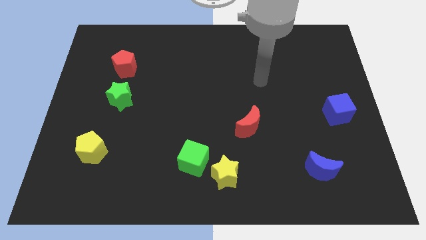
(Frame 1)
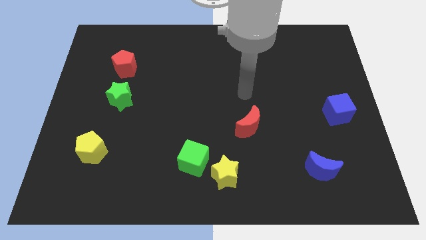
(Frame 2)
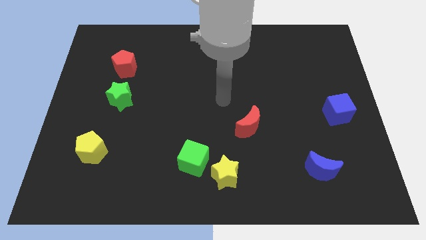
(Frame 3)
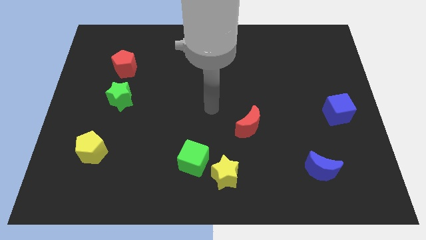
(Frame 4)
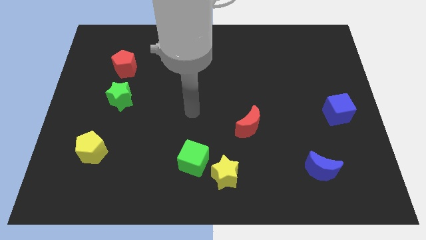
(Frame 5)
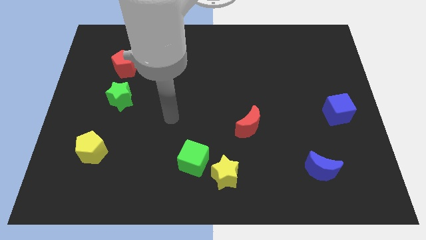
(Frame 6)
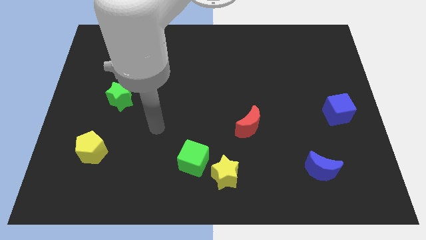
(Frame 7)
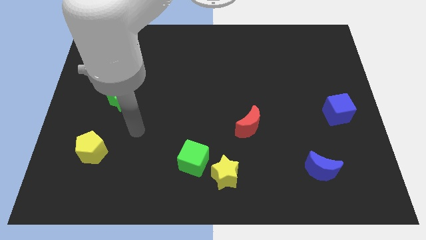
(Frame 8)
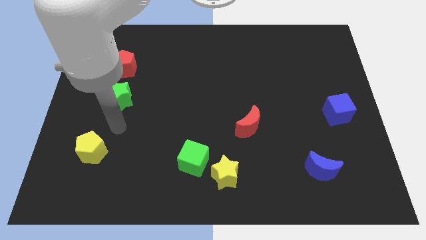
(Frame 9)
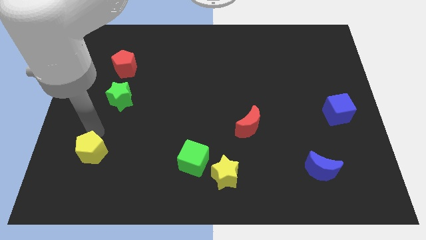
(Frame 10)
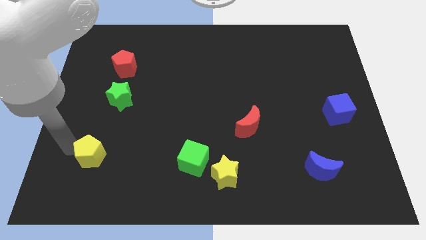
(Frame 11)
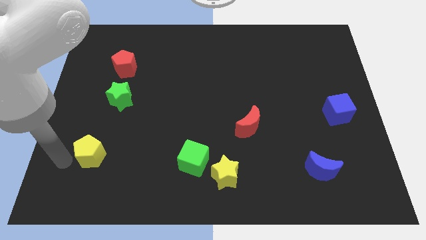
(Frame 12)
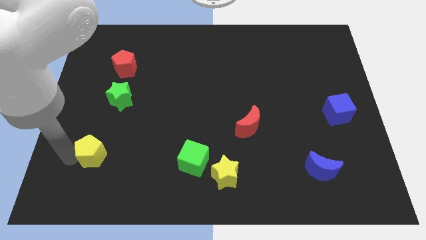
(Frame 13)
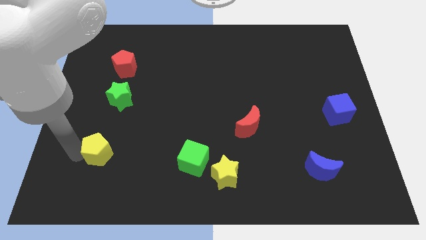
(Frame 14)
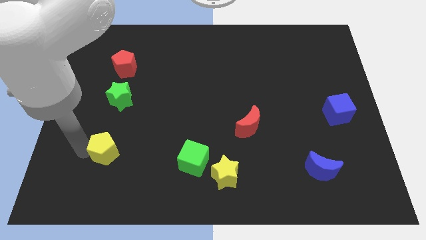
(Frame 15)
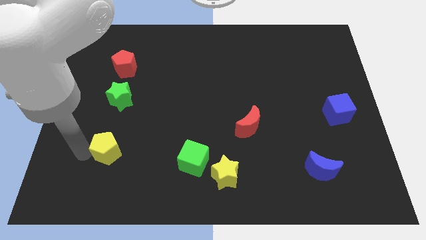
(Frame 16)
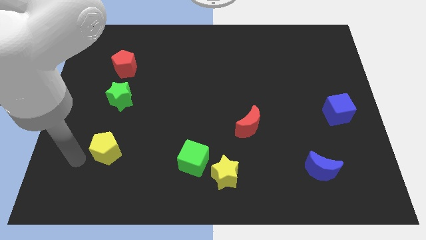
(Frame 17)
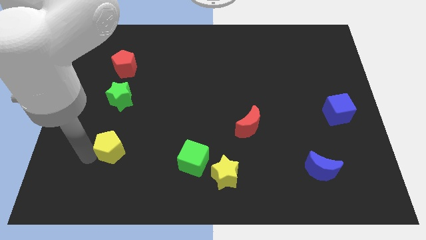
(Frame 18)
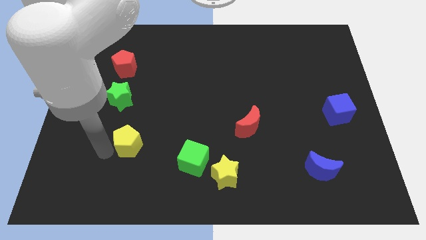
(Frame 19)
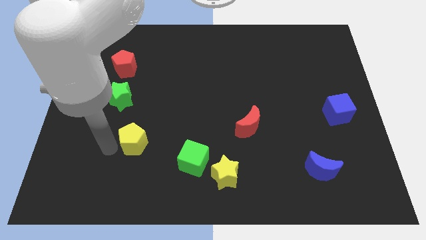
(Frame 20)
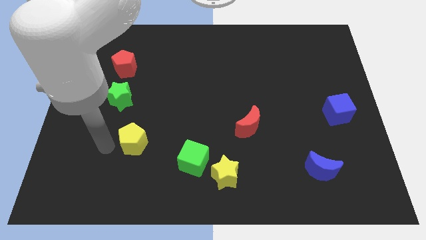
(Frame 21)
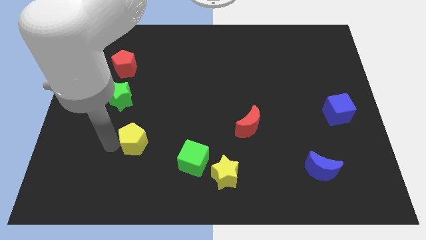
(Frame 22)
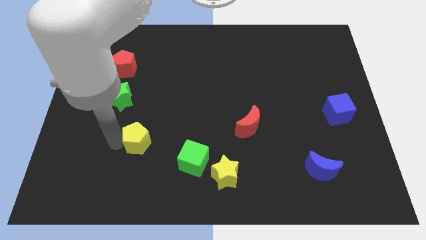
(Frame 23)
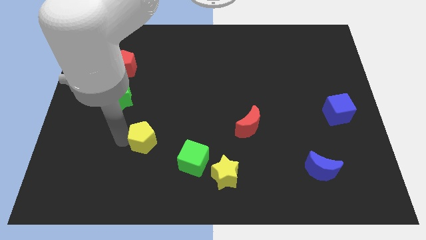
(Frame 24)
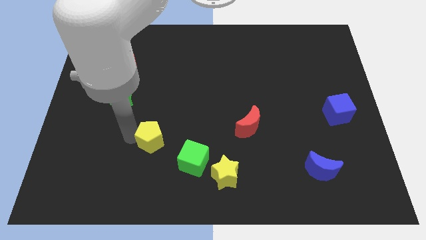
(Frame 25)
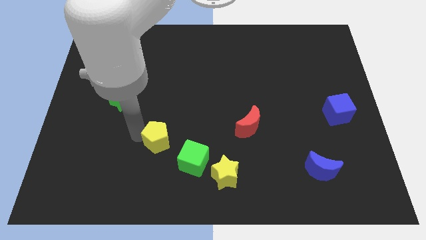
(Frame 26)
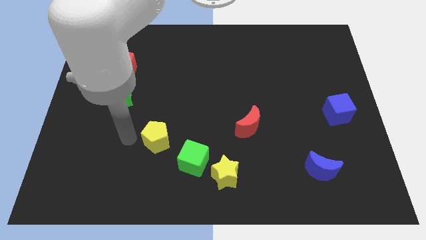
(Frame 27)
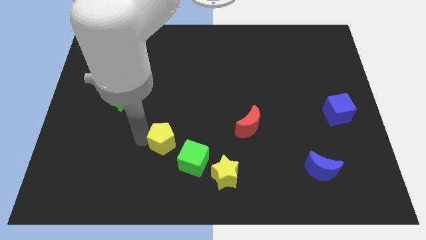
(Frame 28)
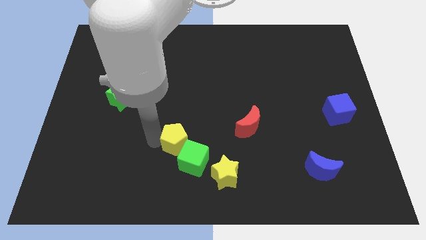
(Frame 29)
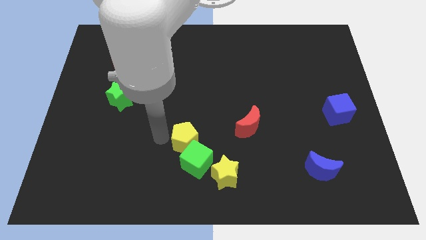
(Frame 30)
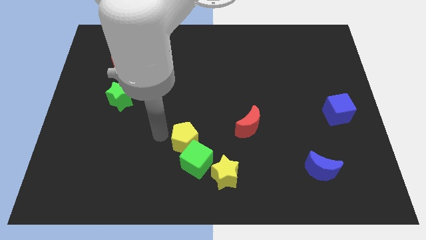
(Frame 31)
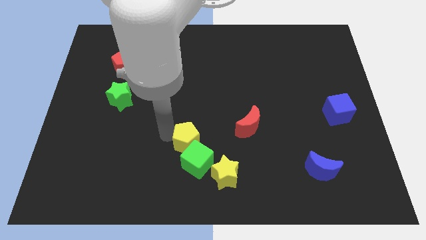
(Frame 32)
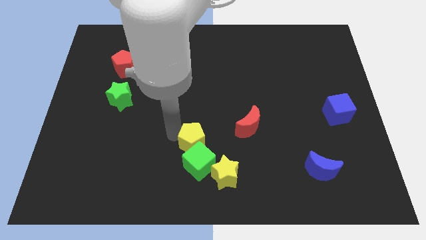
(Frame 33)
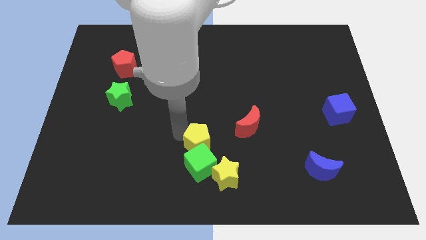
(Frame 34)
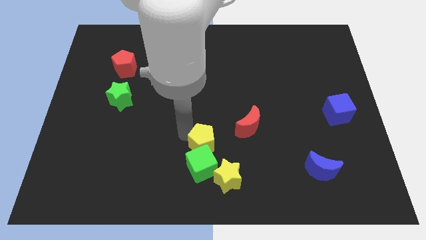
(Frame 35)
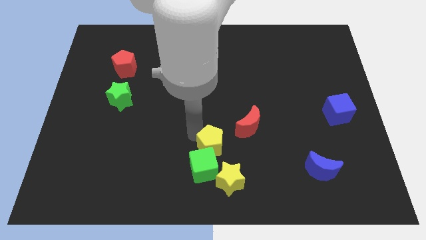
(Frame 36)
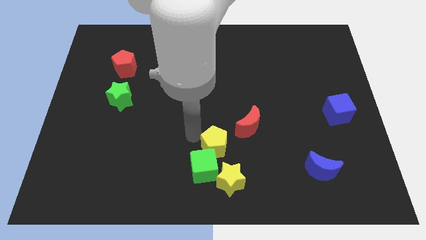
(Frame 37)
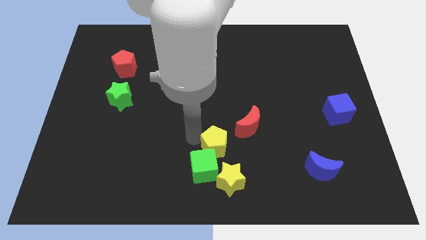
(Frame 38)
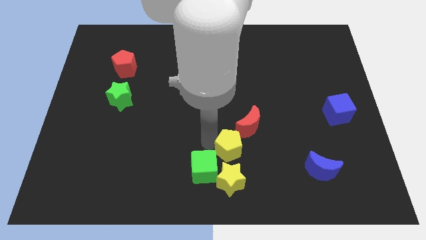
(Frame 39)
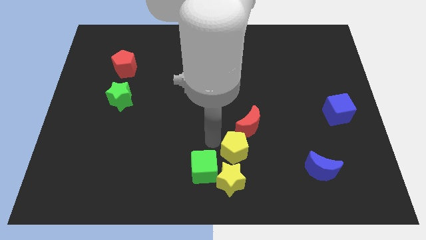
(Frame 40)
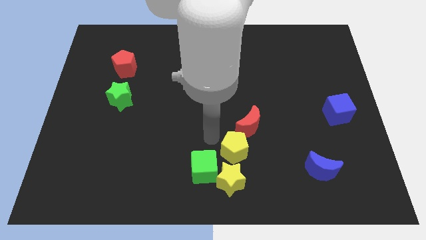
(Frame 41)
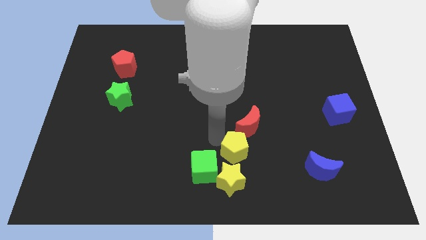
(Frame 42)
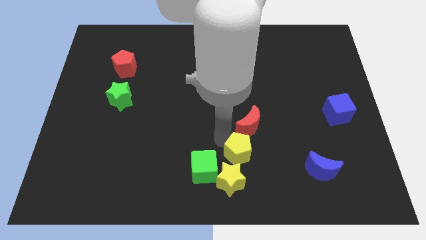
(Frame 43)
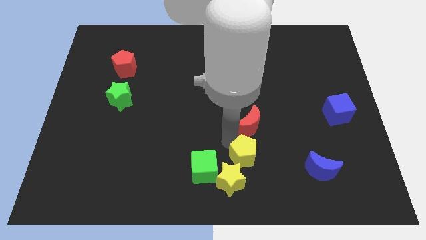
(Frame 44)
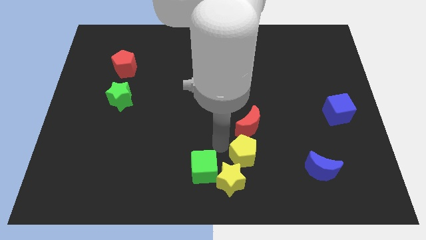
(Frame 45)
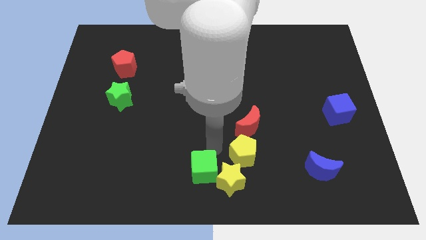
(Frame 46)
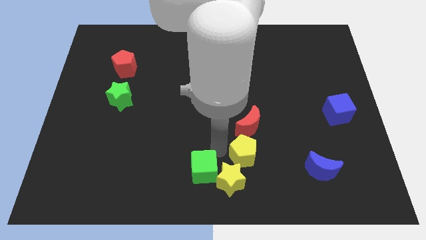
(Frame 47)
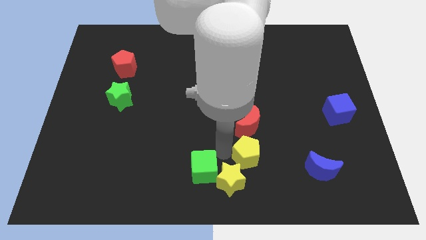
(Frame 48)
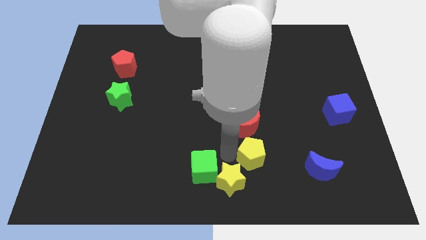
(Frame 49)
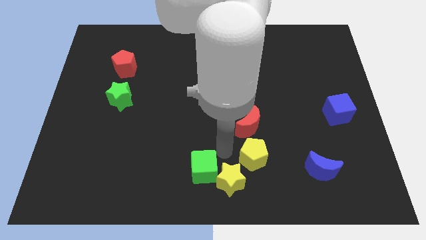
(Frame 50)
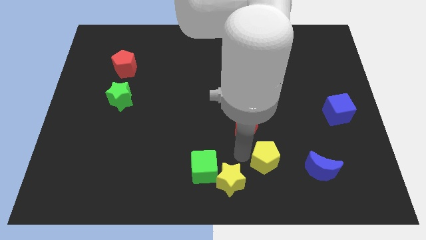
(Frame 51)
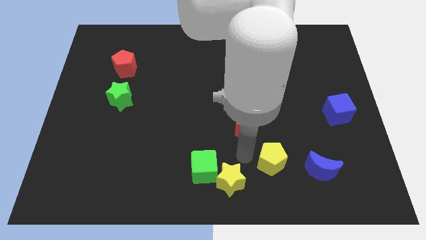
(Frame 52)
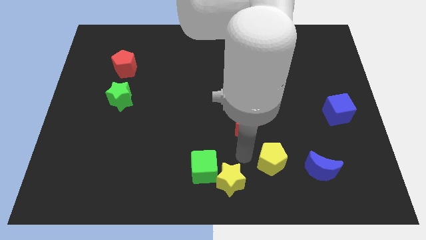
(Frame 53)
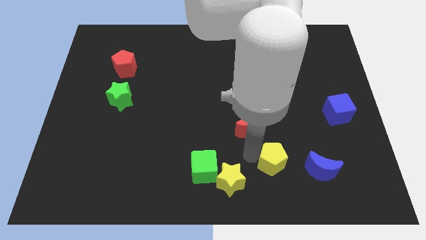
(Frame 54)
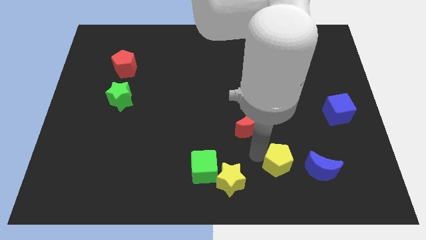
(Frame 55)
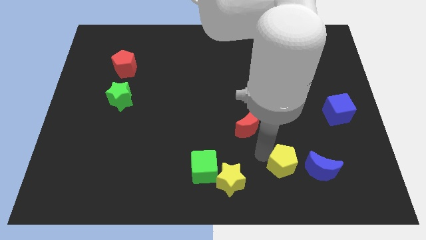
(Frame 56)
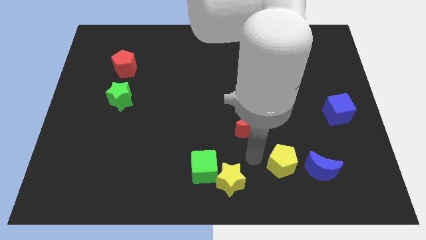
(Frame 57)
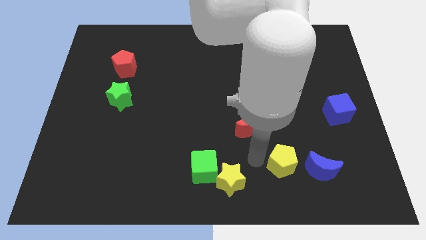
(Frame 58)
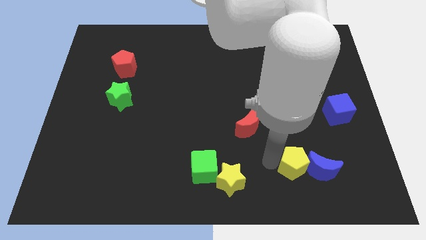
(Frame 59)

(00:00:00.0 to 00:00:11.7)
put the yellow pentagon to the blue moon
